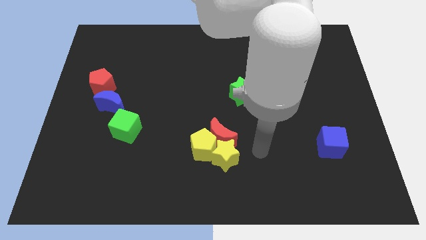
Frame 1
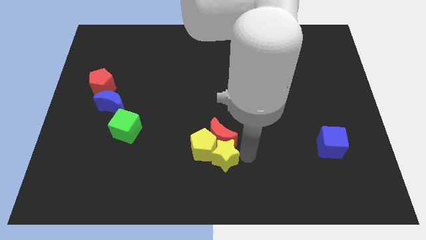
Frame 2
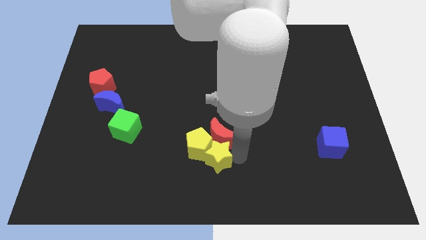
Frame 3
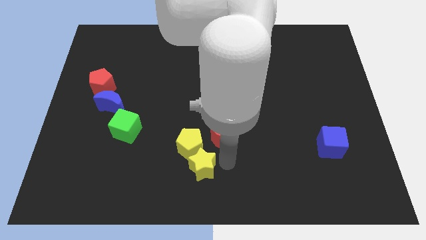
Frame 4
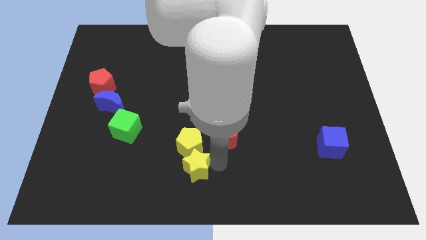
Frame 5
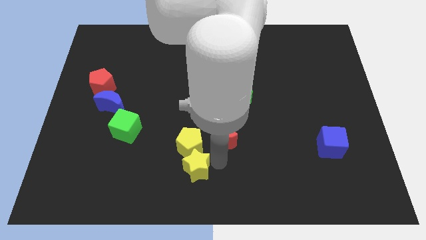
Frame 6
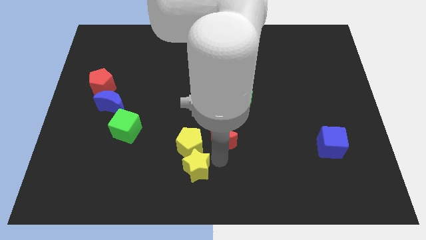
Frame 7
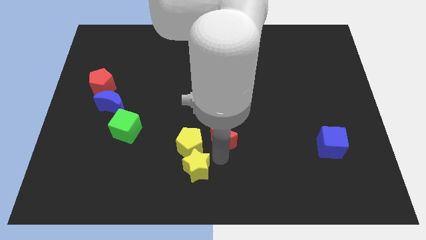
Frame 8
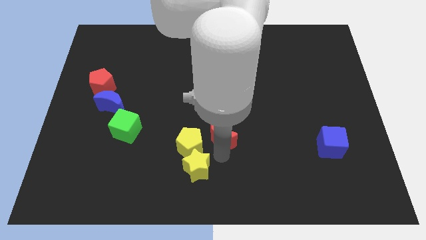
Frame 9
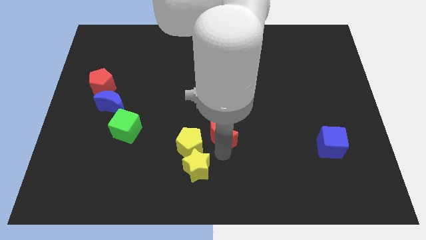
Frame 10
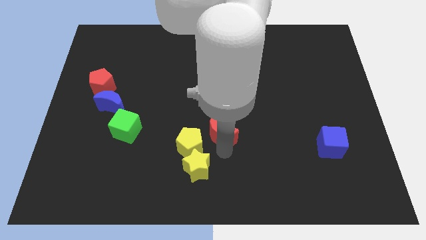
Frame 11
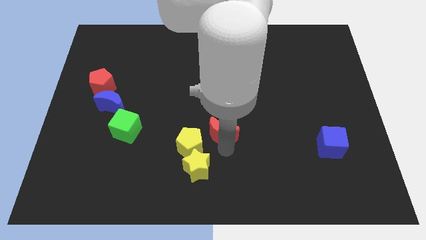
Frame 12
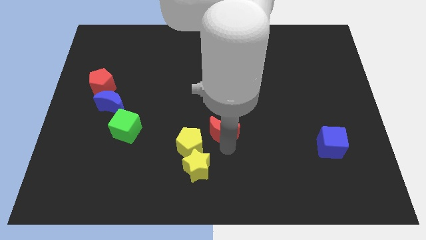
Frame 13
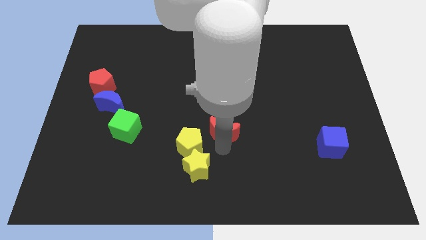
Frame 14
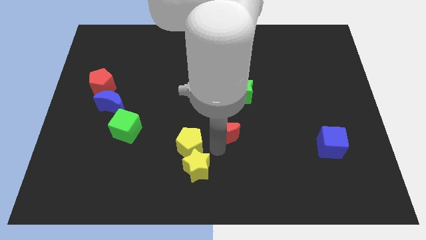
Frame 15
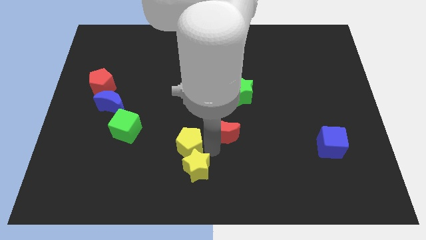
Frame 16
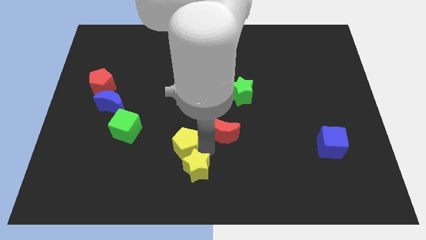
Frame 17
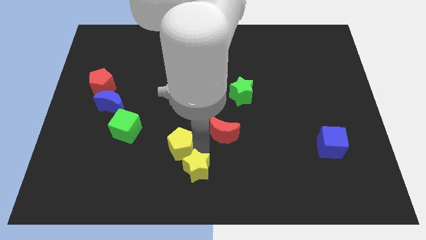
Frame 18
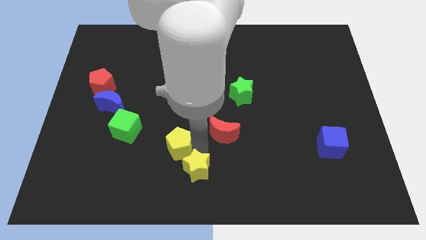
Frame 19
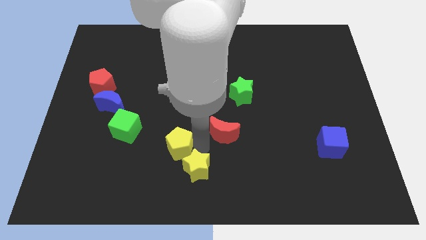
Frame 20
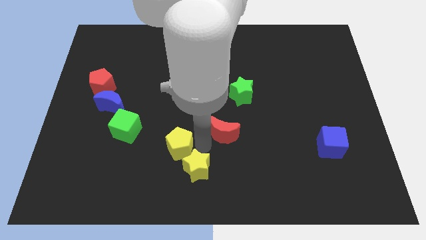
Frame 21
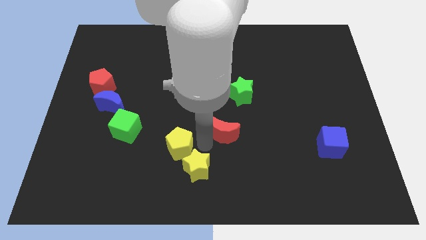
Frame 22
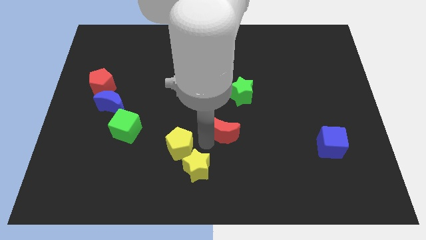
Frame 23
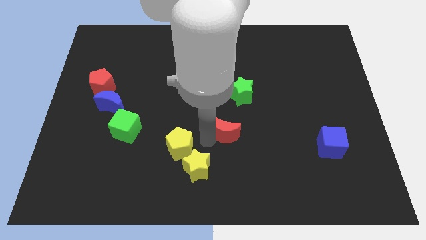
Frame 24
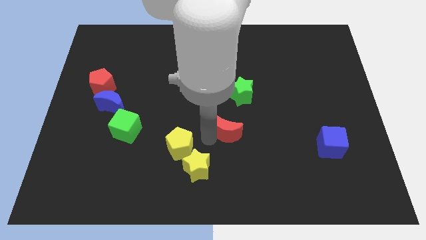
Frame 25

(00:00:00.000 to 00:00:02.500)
separate the red moon from the yellow star and yellow pentagon

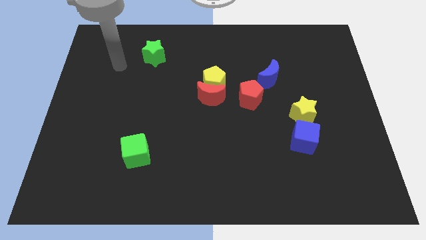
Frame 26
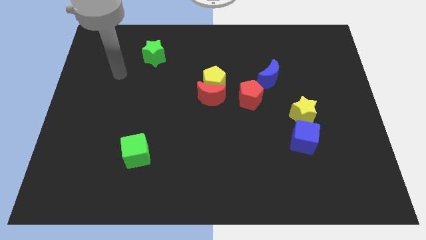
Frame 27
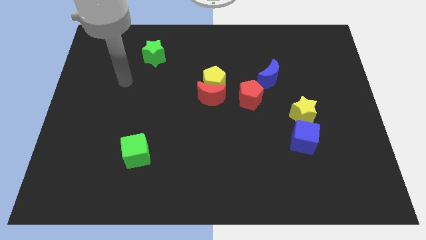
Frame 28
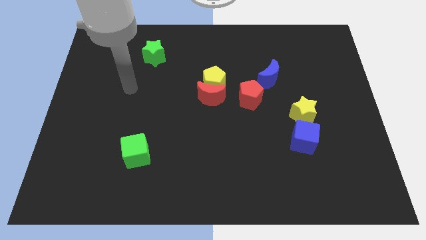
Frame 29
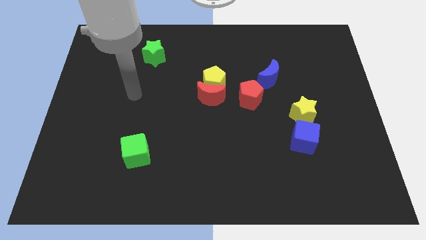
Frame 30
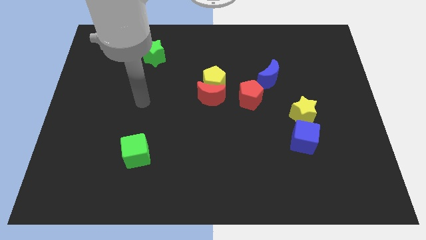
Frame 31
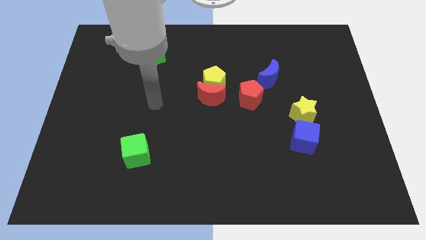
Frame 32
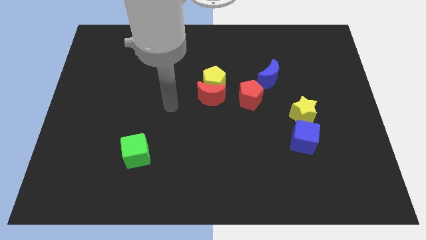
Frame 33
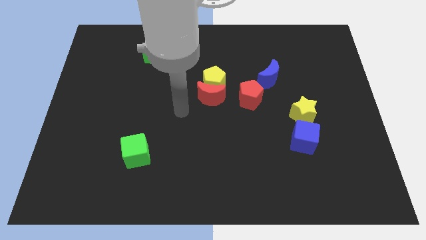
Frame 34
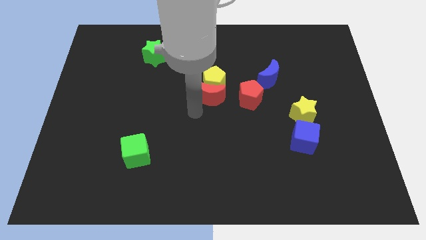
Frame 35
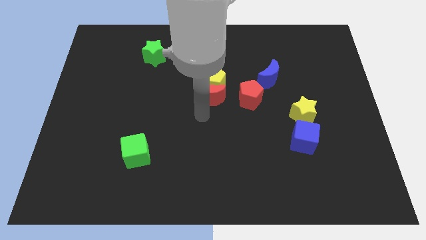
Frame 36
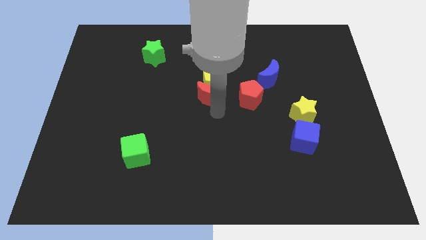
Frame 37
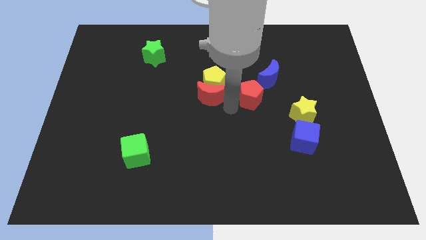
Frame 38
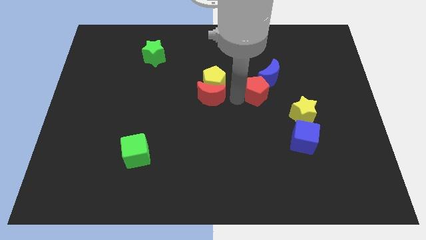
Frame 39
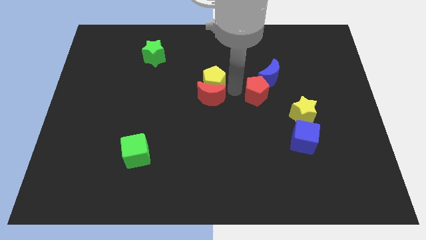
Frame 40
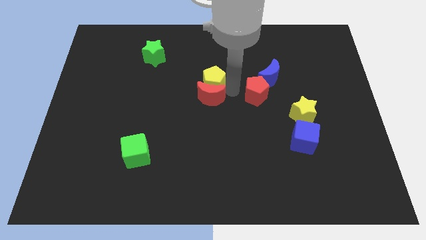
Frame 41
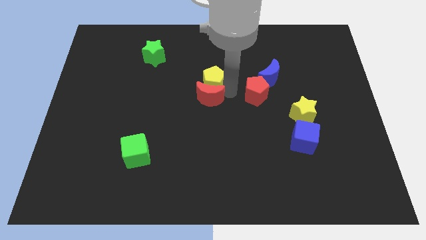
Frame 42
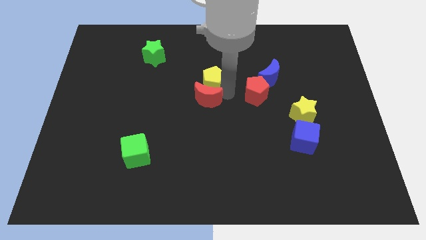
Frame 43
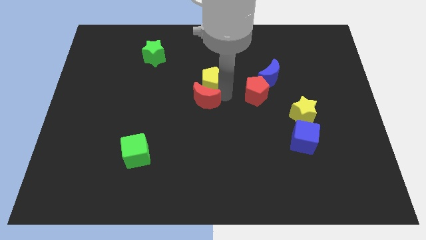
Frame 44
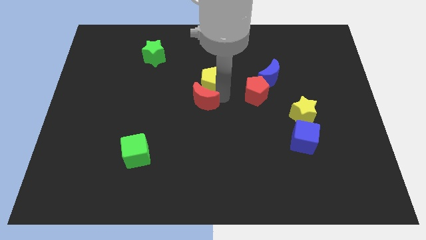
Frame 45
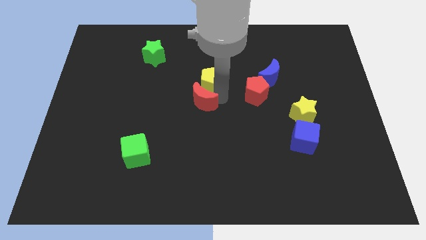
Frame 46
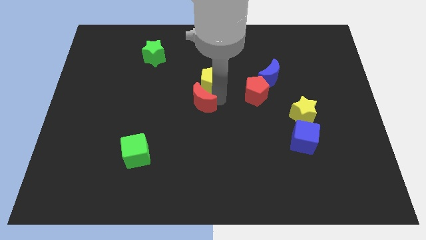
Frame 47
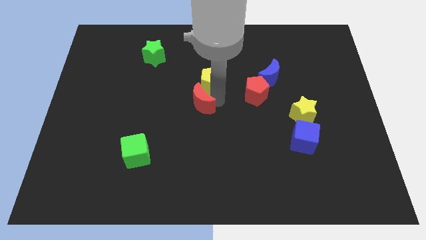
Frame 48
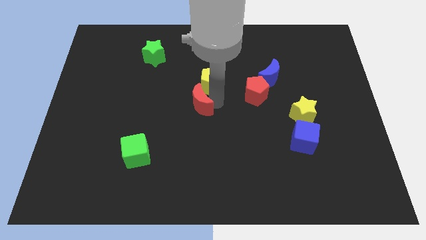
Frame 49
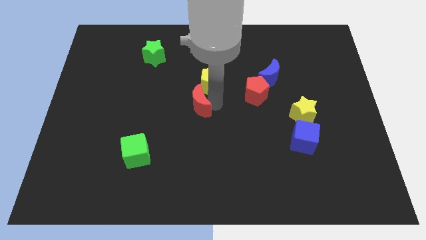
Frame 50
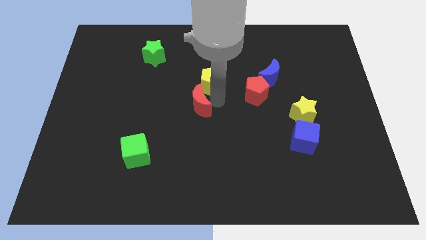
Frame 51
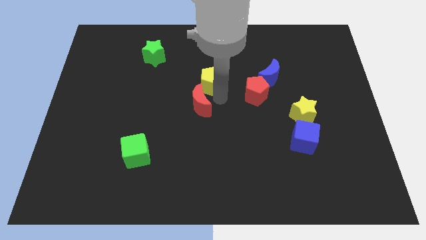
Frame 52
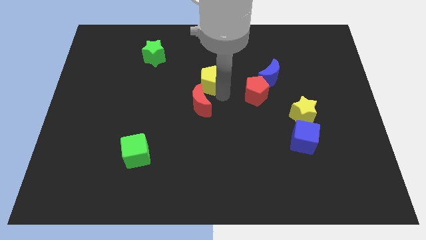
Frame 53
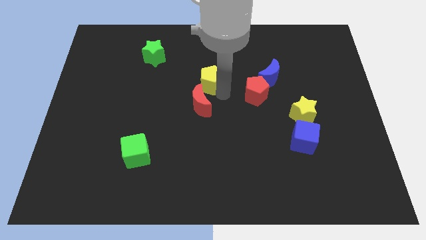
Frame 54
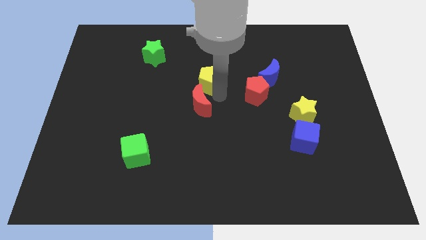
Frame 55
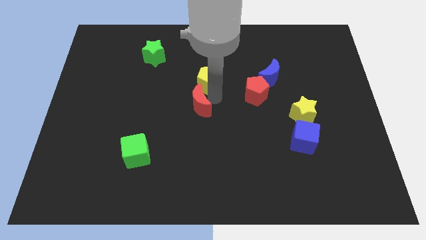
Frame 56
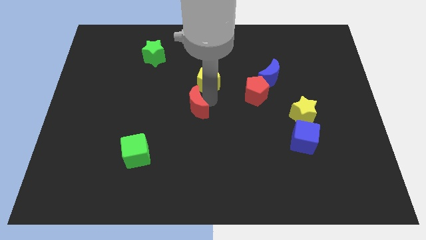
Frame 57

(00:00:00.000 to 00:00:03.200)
pull the red moon apart from the yellow pentagon and red pentagon

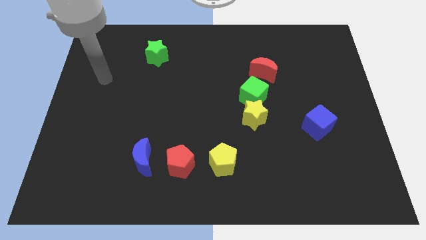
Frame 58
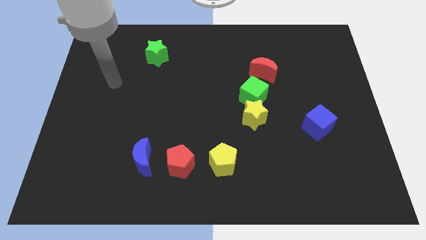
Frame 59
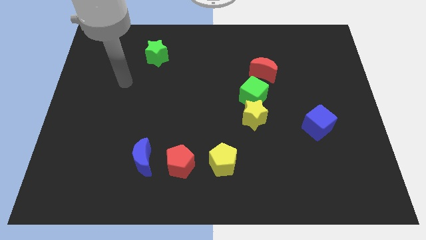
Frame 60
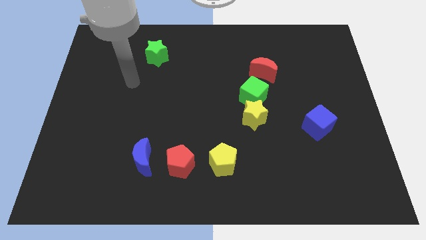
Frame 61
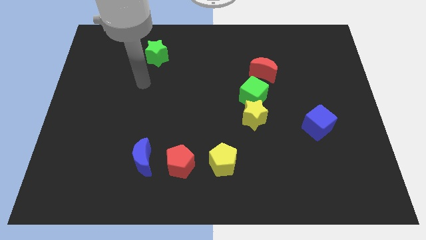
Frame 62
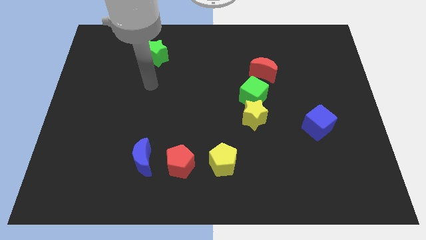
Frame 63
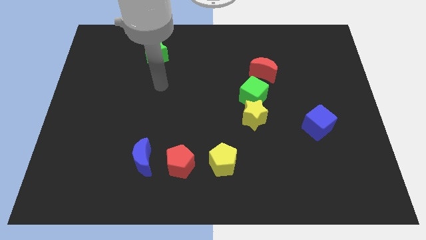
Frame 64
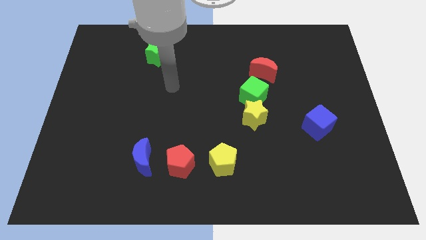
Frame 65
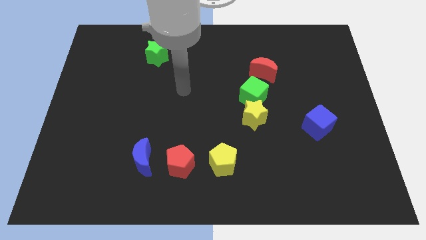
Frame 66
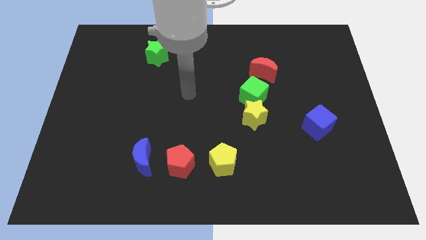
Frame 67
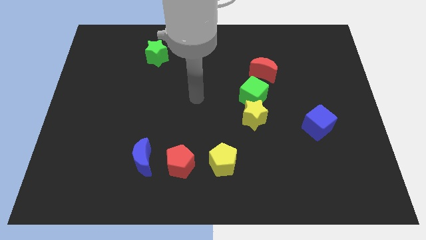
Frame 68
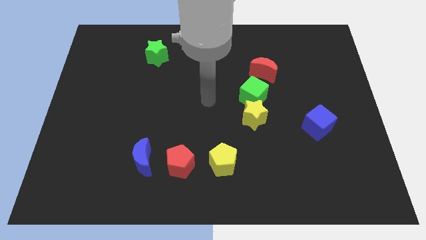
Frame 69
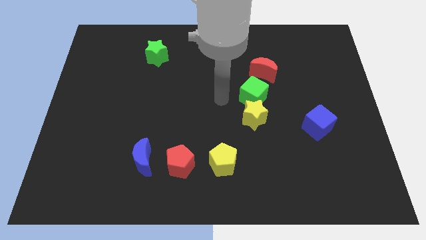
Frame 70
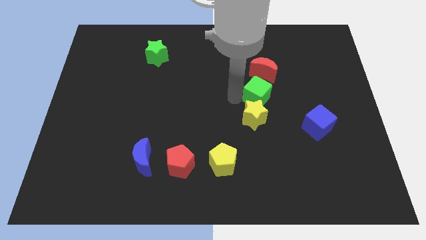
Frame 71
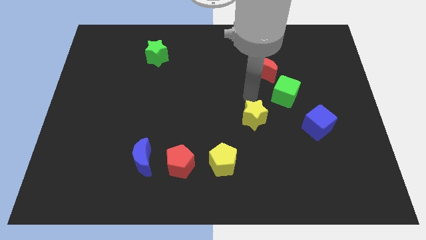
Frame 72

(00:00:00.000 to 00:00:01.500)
pull the yellow star apart from the green cube

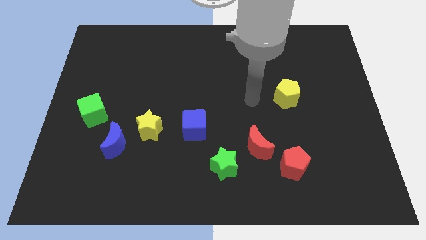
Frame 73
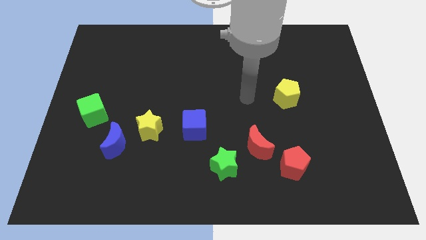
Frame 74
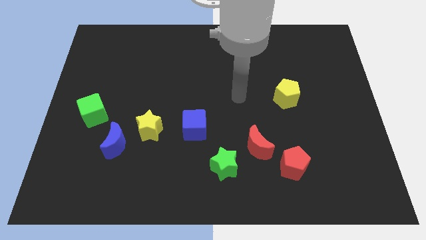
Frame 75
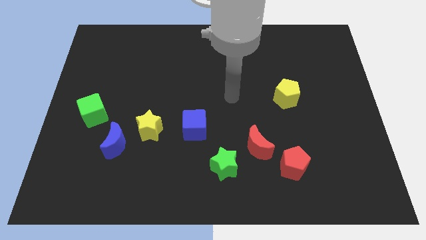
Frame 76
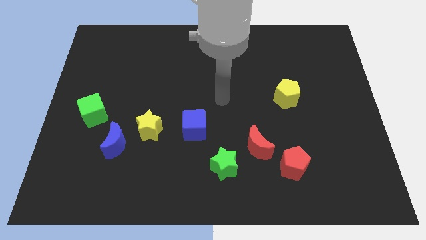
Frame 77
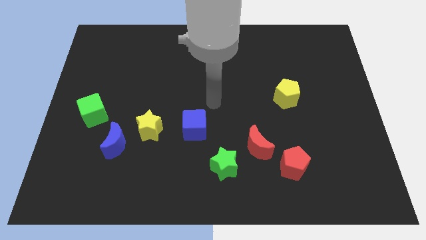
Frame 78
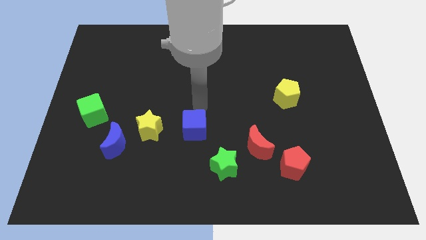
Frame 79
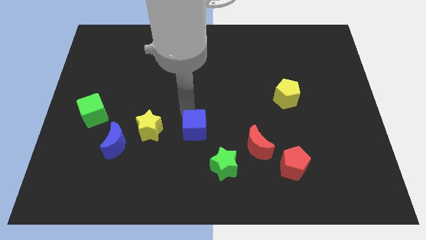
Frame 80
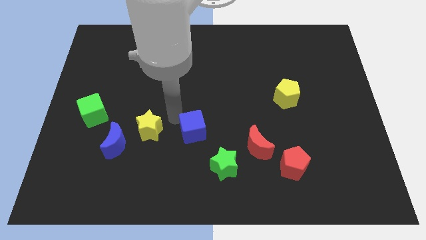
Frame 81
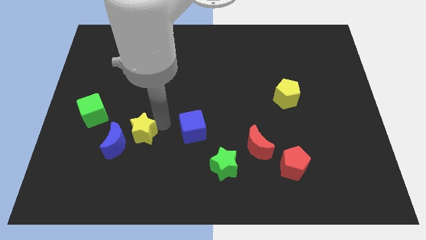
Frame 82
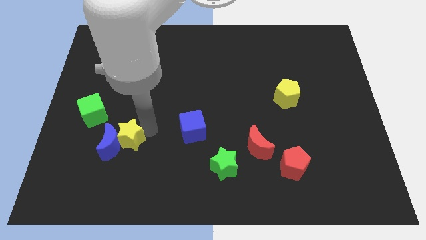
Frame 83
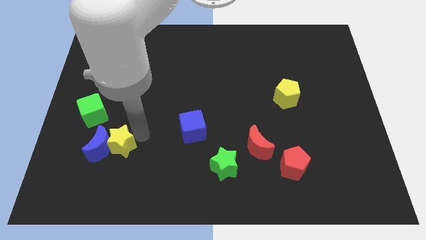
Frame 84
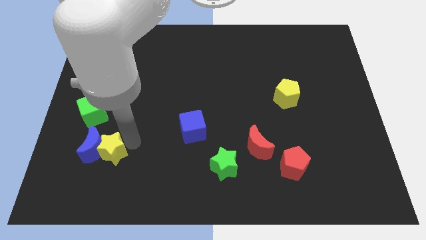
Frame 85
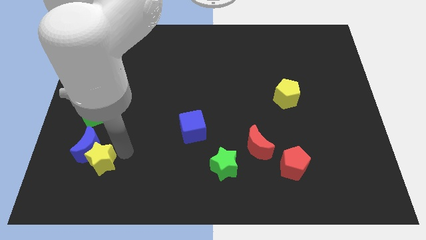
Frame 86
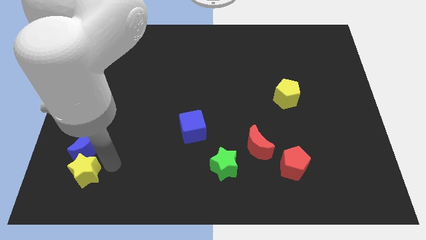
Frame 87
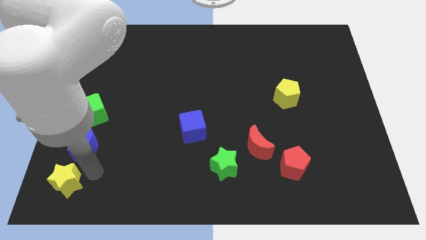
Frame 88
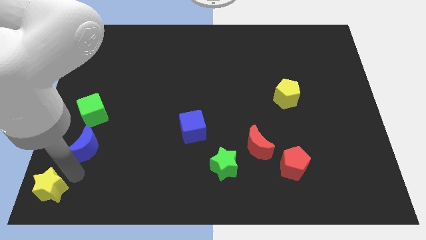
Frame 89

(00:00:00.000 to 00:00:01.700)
separate the blue moon from the yellow star

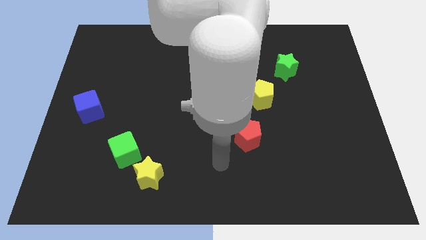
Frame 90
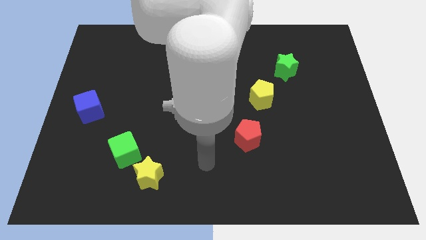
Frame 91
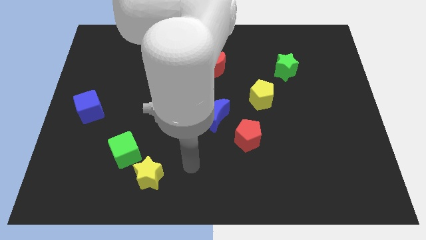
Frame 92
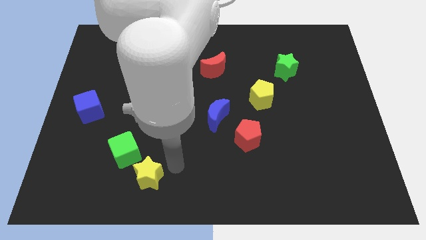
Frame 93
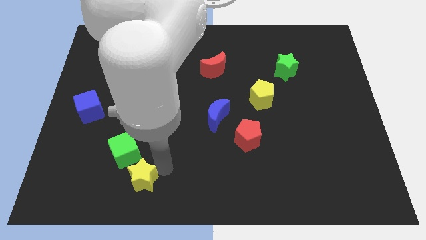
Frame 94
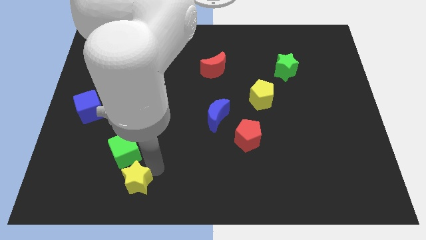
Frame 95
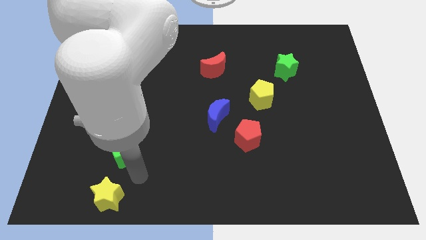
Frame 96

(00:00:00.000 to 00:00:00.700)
separate the green cube from the yellow star
